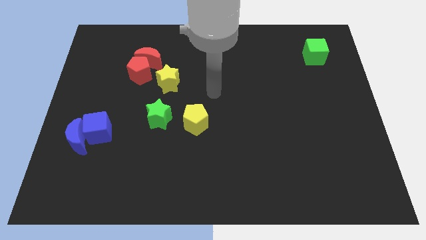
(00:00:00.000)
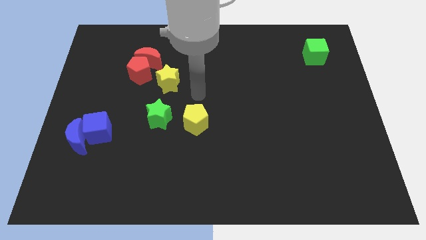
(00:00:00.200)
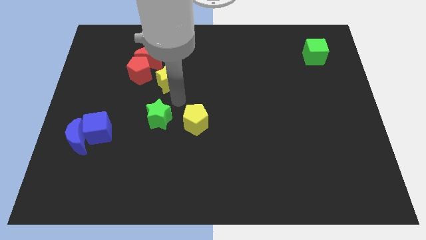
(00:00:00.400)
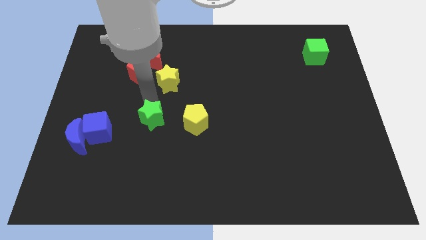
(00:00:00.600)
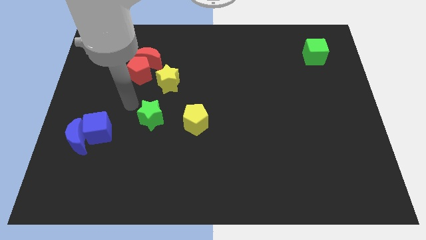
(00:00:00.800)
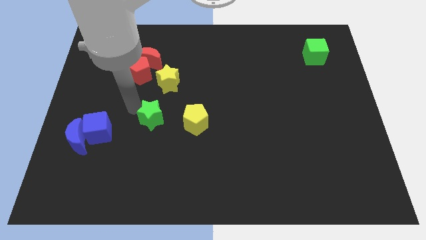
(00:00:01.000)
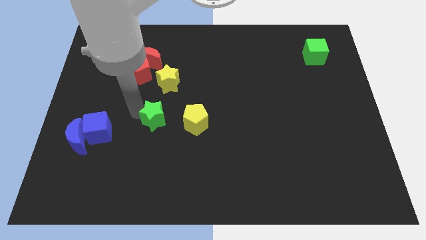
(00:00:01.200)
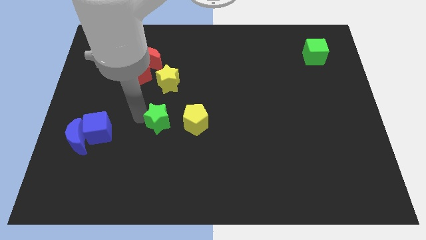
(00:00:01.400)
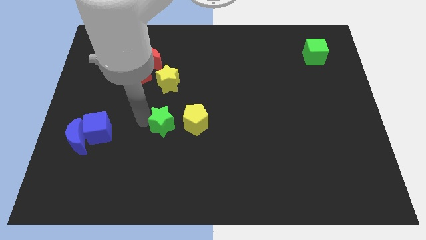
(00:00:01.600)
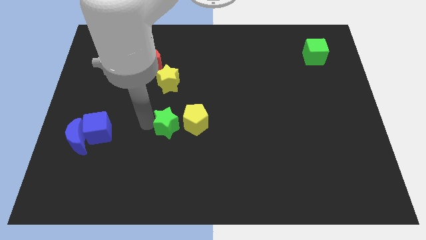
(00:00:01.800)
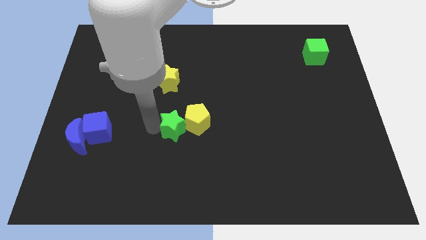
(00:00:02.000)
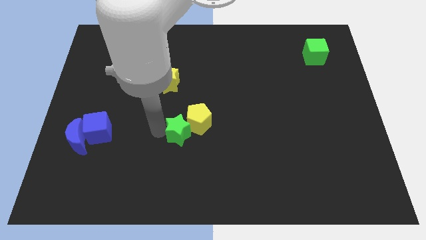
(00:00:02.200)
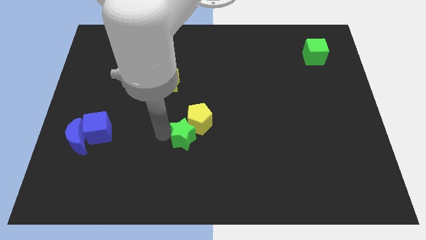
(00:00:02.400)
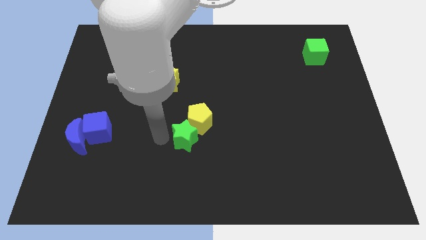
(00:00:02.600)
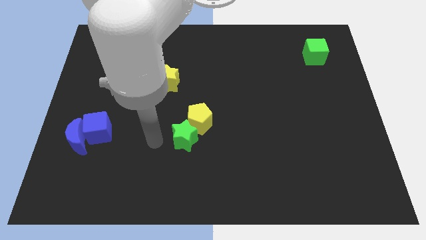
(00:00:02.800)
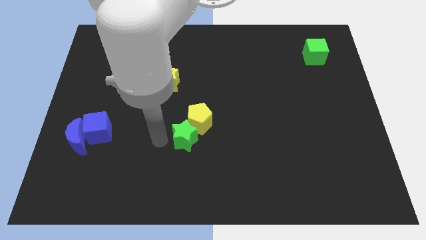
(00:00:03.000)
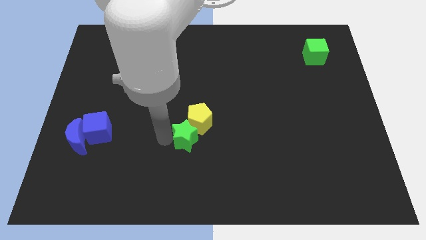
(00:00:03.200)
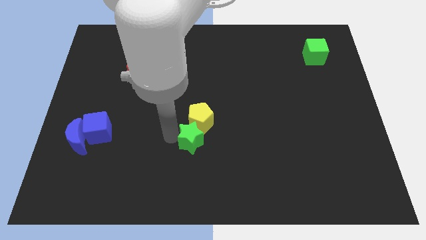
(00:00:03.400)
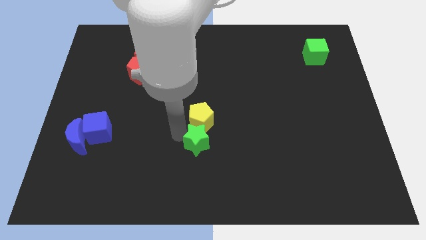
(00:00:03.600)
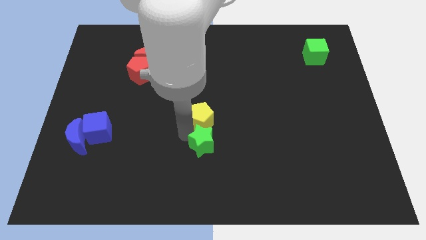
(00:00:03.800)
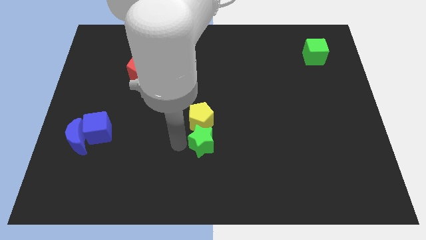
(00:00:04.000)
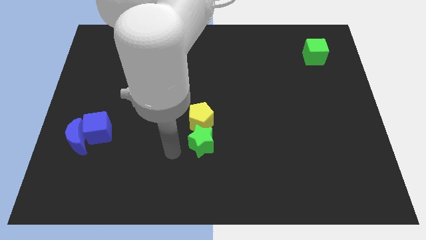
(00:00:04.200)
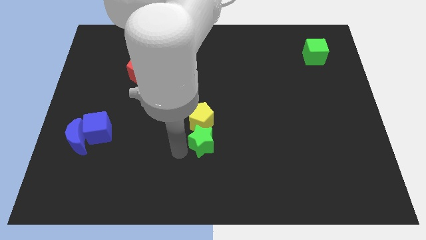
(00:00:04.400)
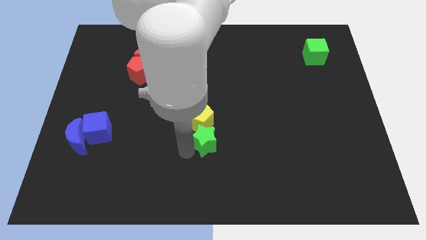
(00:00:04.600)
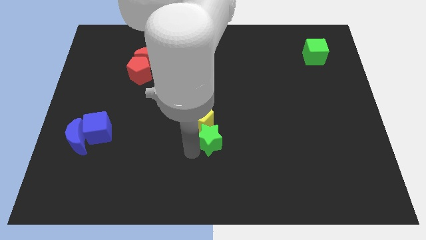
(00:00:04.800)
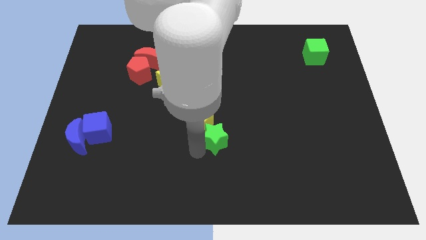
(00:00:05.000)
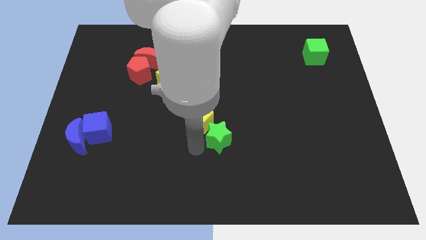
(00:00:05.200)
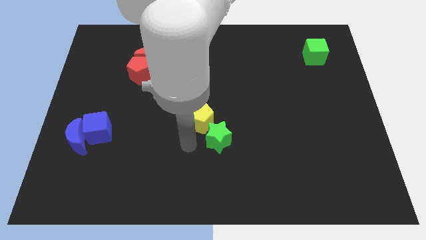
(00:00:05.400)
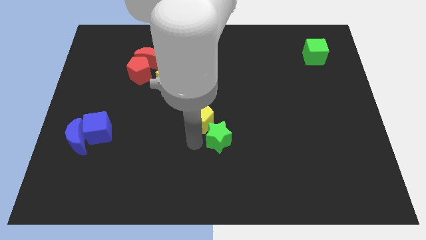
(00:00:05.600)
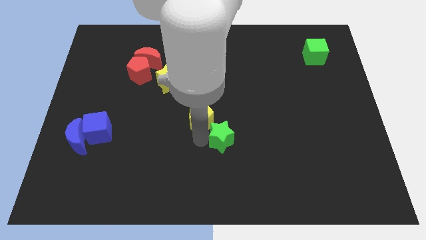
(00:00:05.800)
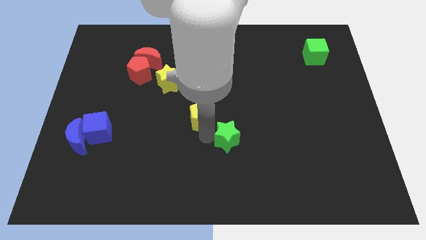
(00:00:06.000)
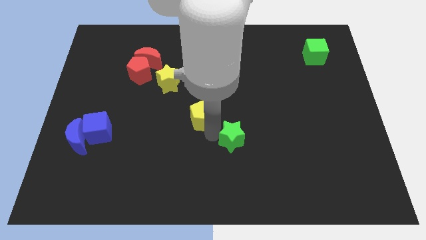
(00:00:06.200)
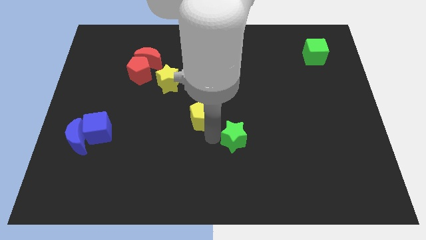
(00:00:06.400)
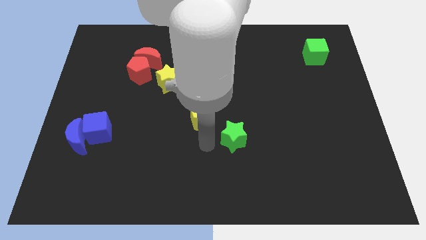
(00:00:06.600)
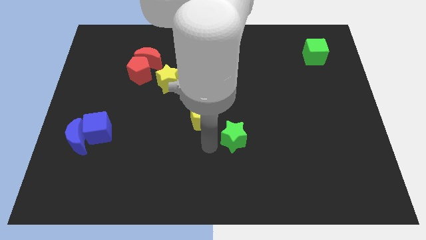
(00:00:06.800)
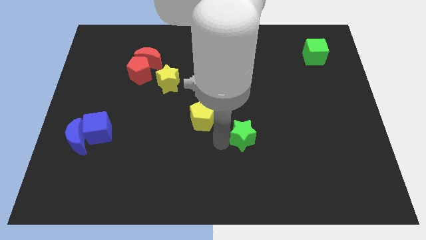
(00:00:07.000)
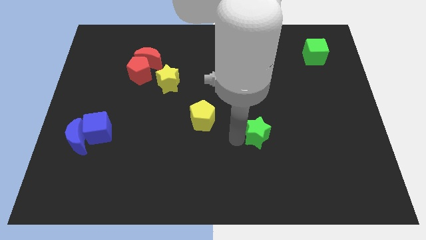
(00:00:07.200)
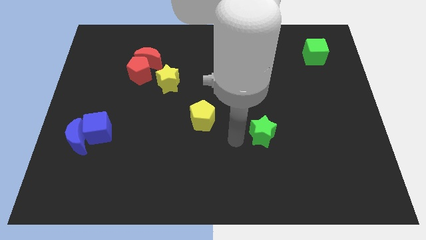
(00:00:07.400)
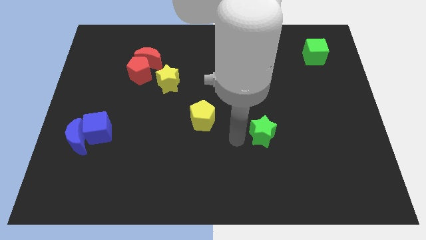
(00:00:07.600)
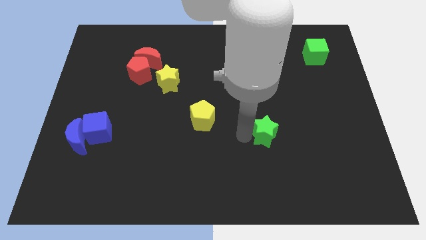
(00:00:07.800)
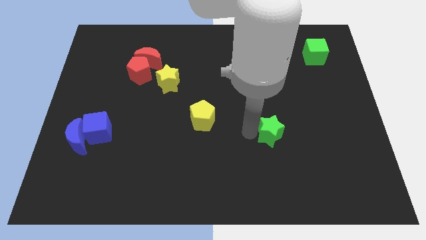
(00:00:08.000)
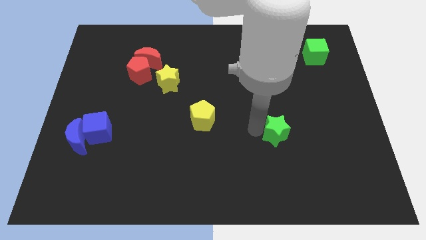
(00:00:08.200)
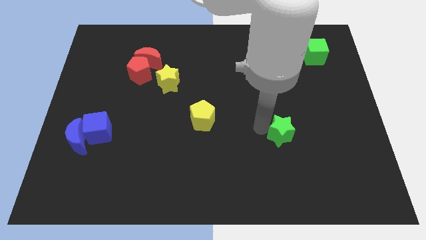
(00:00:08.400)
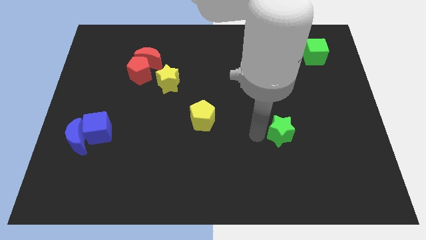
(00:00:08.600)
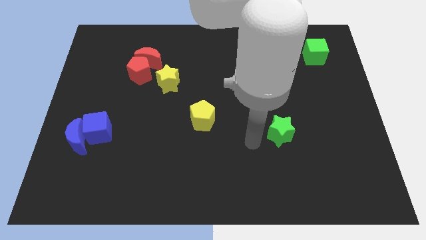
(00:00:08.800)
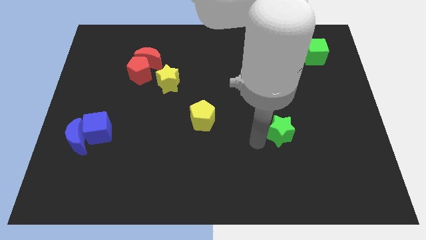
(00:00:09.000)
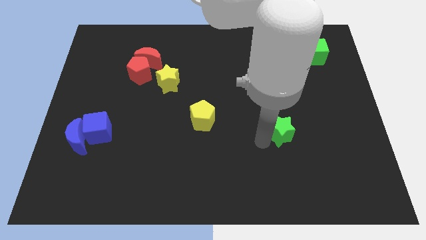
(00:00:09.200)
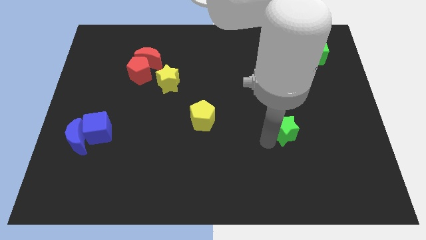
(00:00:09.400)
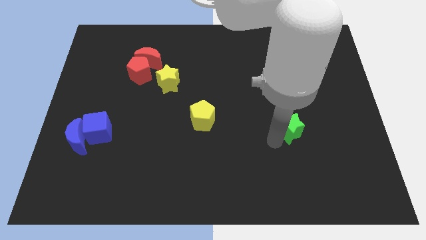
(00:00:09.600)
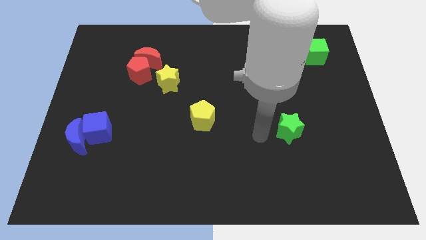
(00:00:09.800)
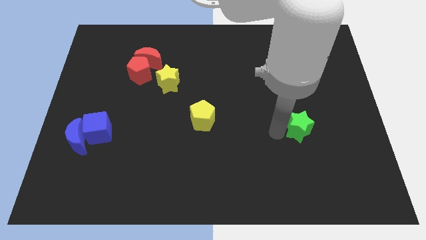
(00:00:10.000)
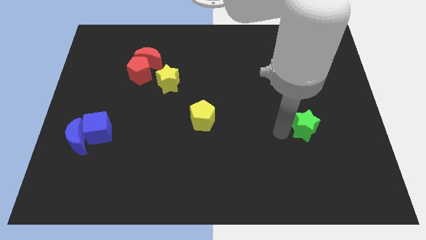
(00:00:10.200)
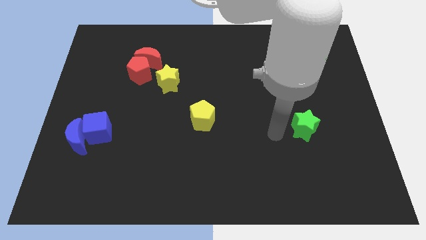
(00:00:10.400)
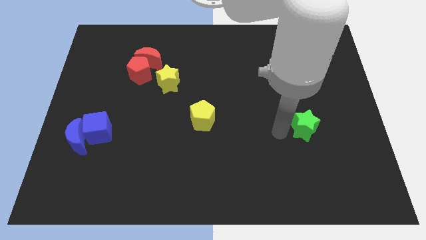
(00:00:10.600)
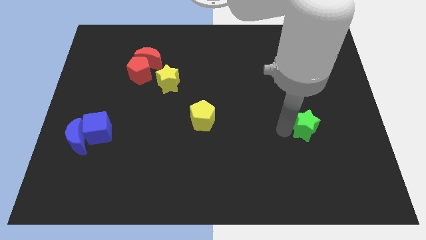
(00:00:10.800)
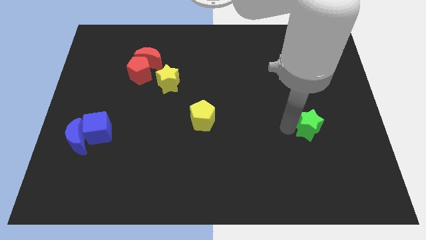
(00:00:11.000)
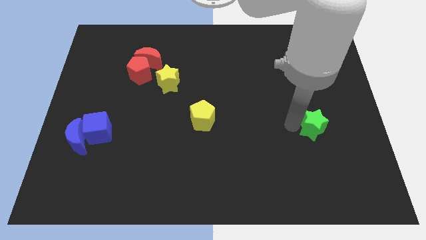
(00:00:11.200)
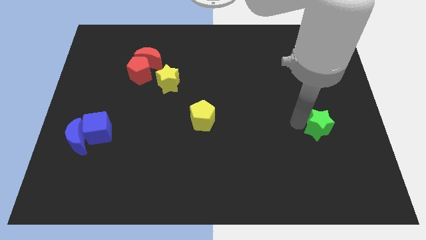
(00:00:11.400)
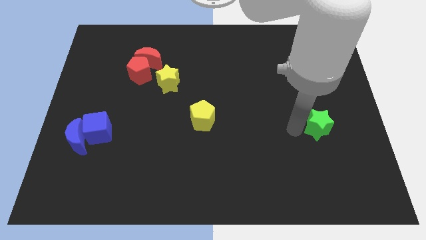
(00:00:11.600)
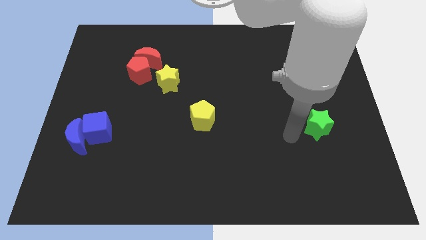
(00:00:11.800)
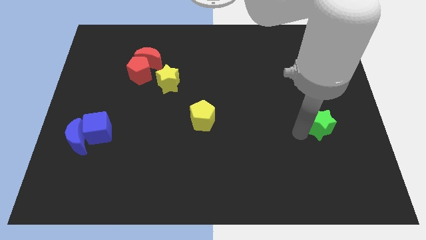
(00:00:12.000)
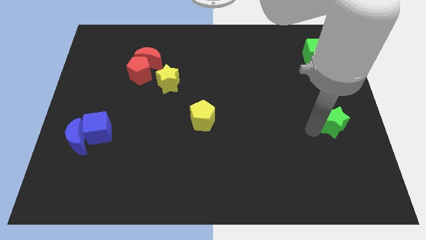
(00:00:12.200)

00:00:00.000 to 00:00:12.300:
slide the green star to the right side of the board
